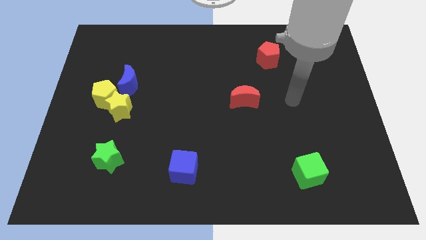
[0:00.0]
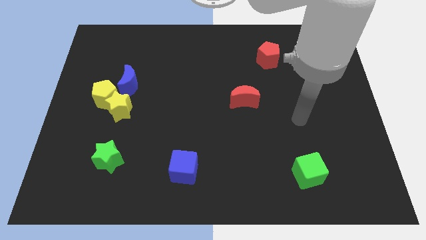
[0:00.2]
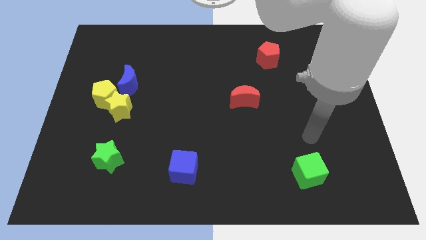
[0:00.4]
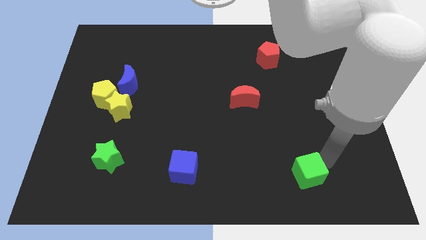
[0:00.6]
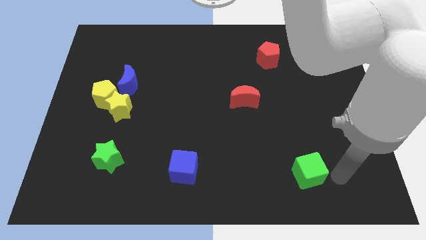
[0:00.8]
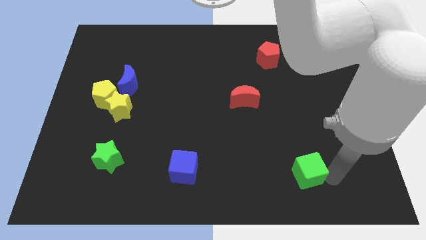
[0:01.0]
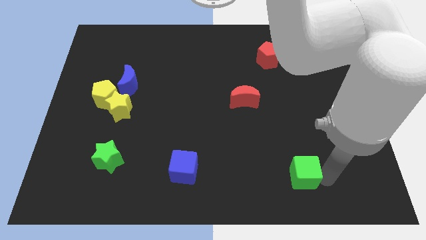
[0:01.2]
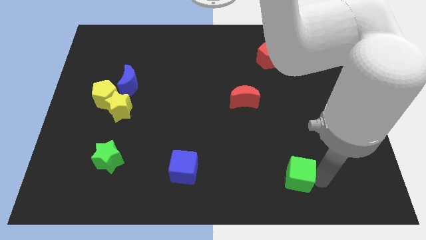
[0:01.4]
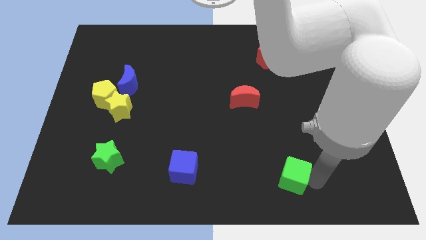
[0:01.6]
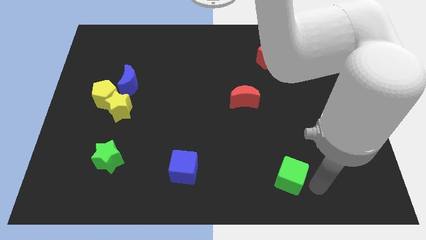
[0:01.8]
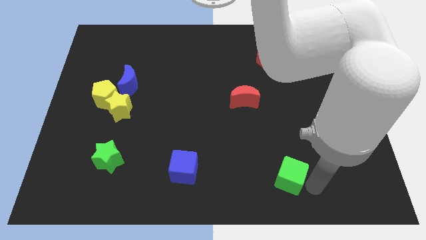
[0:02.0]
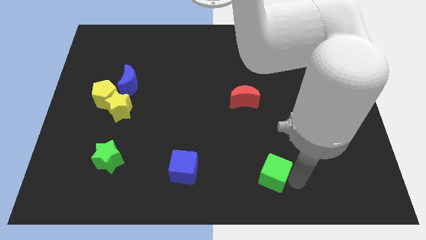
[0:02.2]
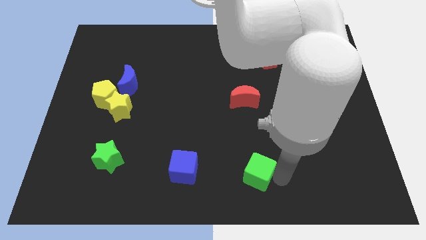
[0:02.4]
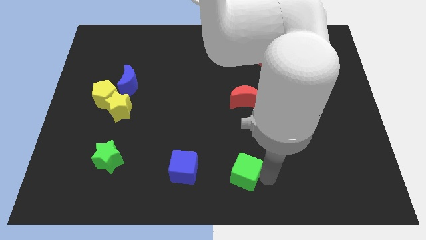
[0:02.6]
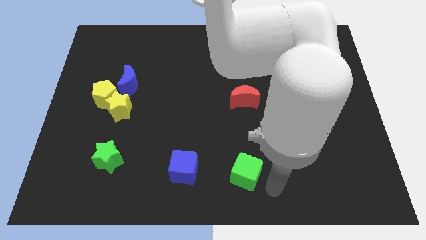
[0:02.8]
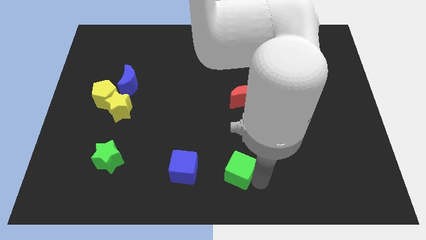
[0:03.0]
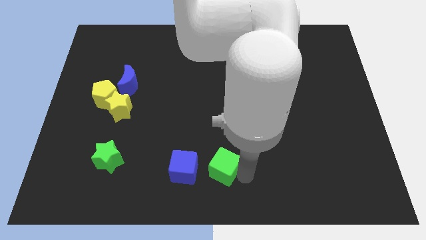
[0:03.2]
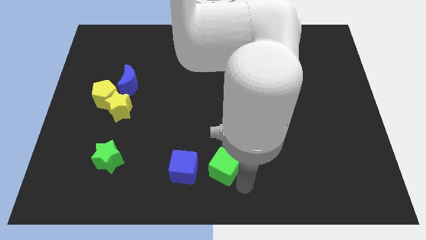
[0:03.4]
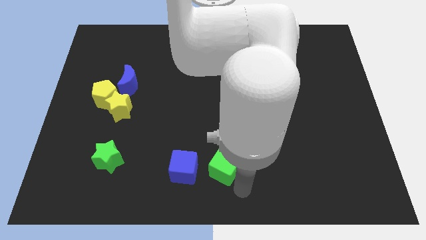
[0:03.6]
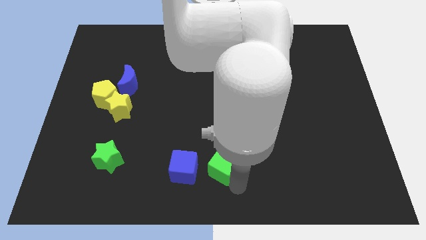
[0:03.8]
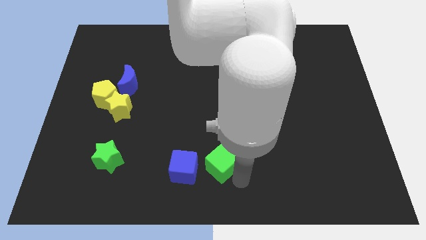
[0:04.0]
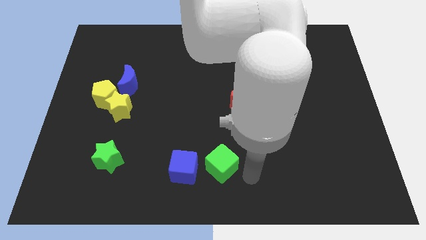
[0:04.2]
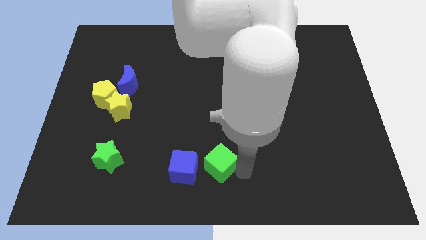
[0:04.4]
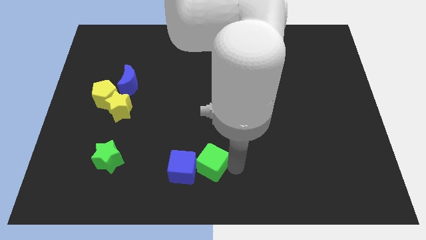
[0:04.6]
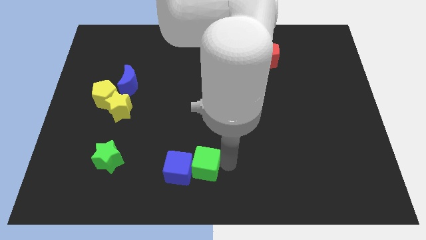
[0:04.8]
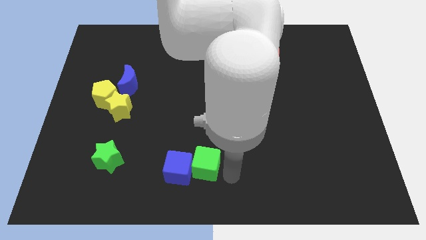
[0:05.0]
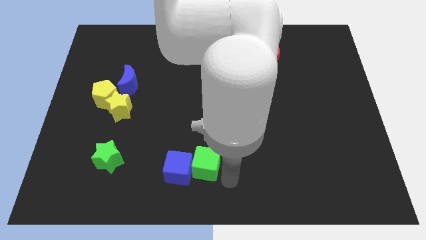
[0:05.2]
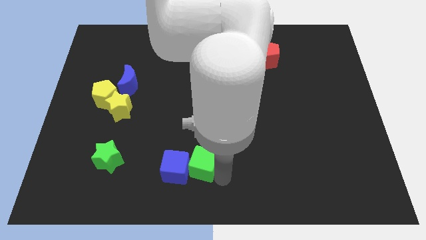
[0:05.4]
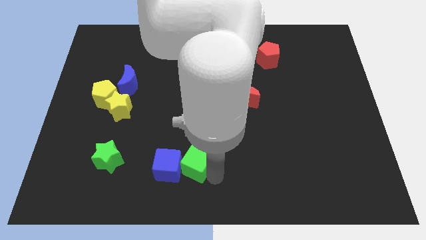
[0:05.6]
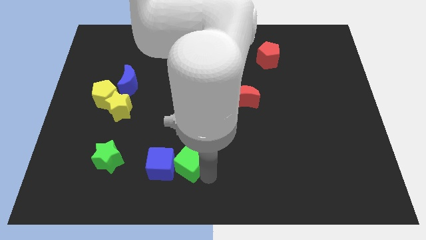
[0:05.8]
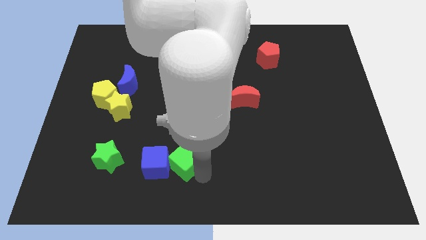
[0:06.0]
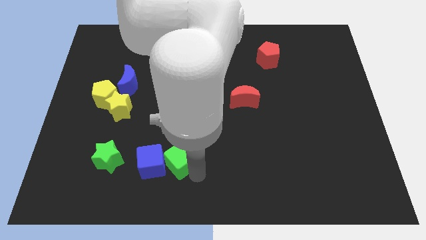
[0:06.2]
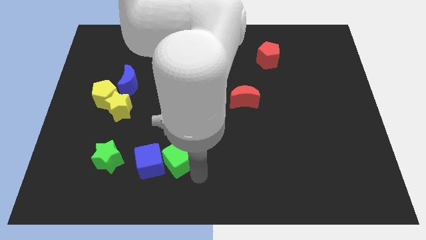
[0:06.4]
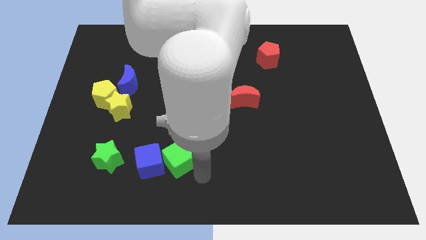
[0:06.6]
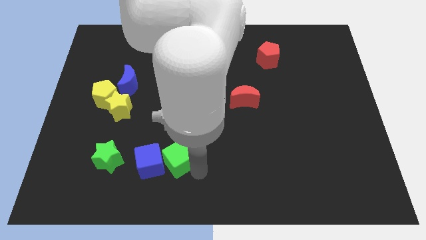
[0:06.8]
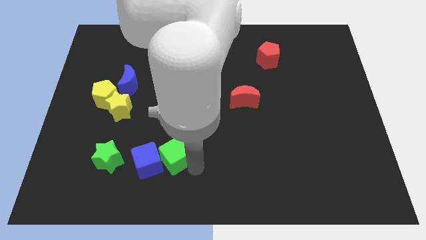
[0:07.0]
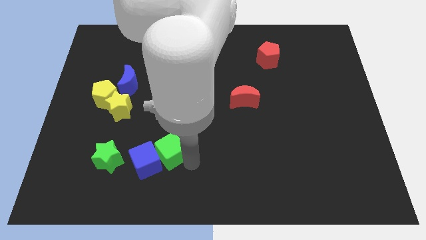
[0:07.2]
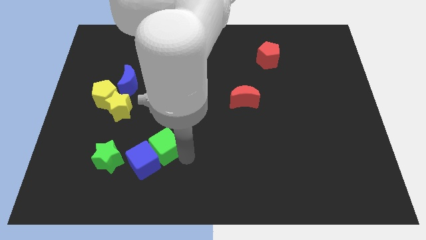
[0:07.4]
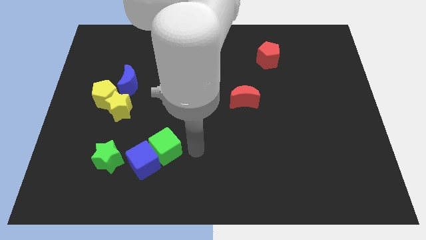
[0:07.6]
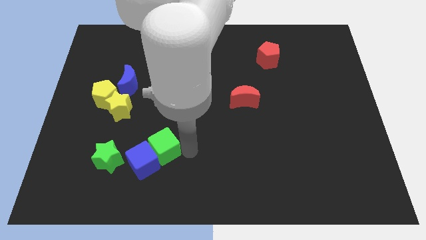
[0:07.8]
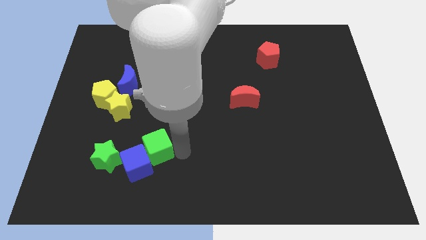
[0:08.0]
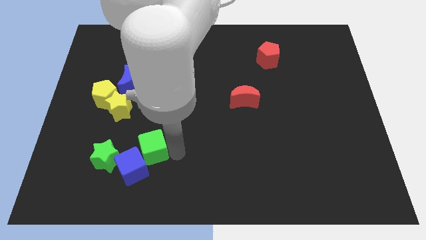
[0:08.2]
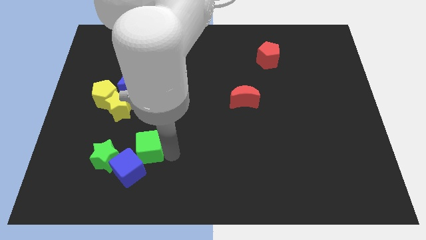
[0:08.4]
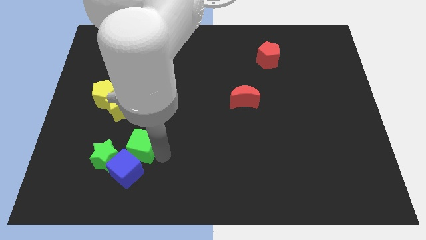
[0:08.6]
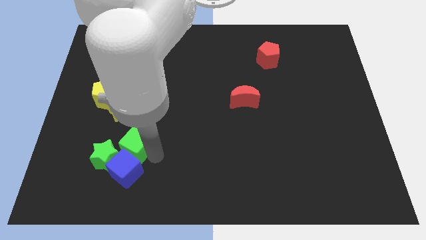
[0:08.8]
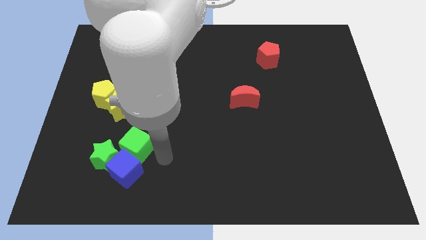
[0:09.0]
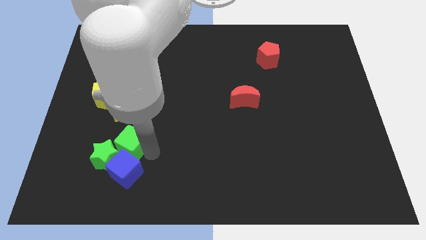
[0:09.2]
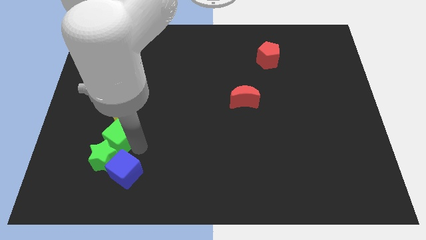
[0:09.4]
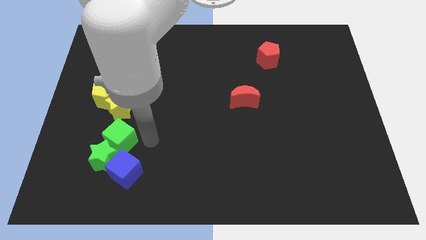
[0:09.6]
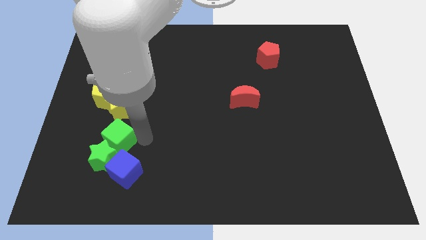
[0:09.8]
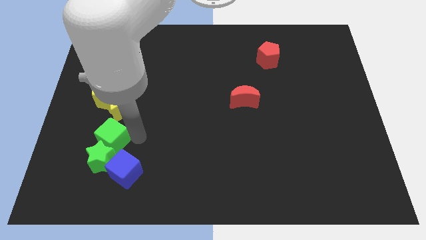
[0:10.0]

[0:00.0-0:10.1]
move the green cube to the top left of the green star

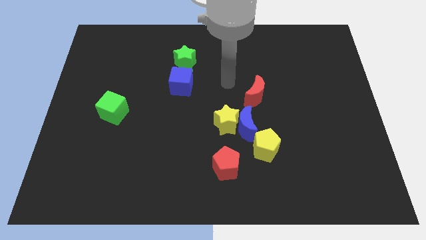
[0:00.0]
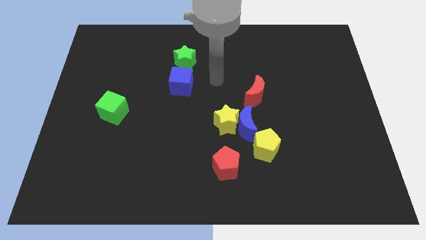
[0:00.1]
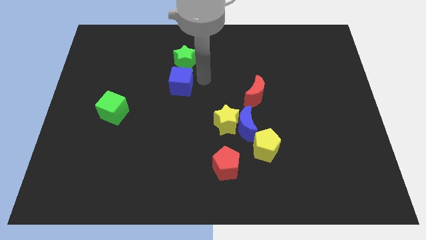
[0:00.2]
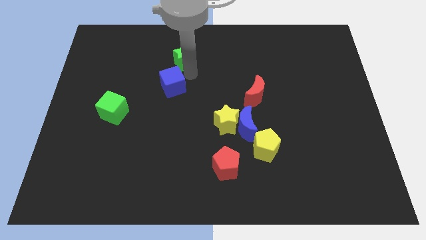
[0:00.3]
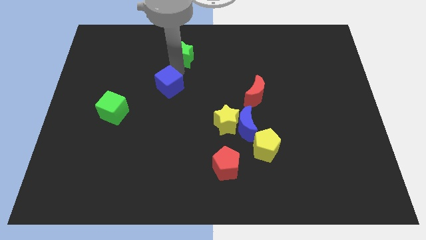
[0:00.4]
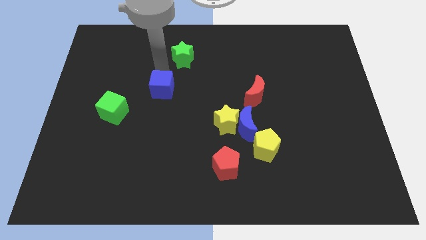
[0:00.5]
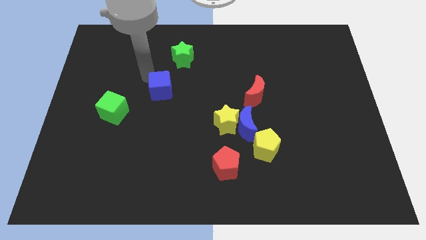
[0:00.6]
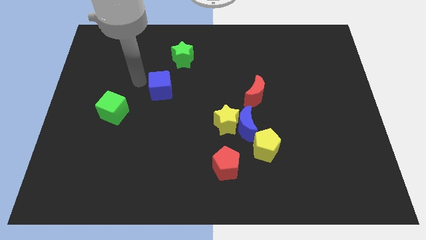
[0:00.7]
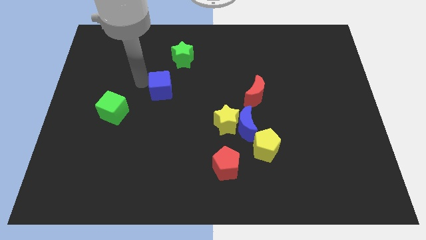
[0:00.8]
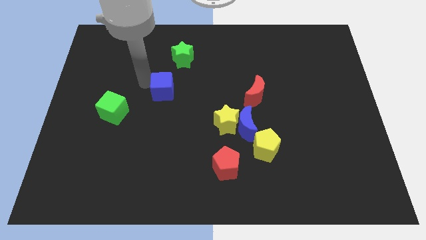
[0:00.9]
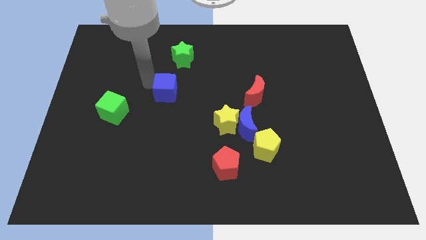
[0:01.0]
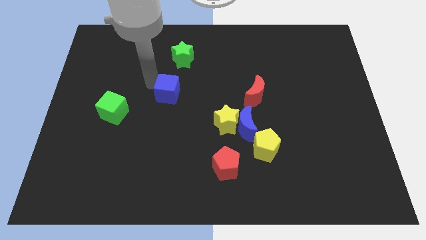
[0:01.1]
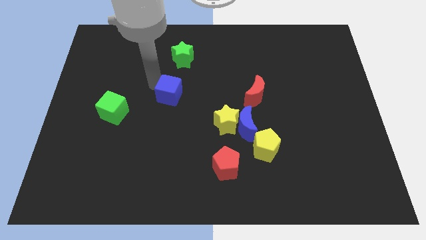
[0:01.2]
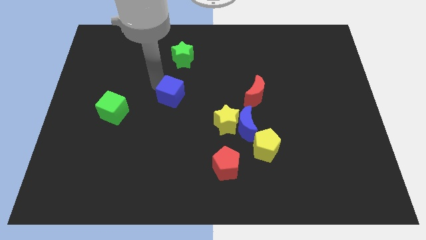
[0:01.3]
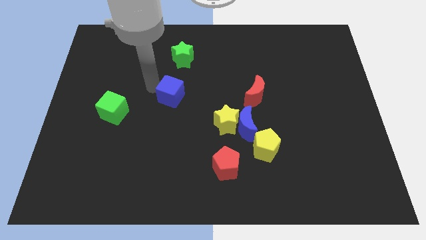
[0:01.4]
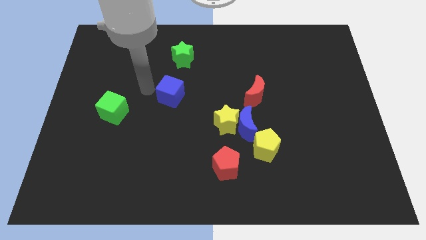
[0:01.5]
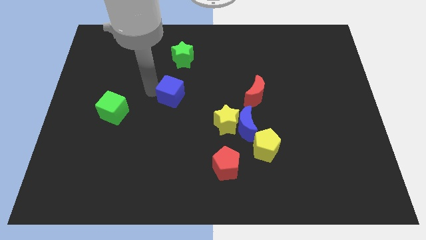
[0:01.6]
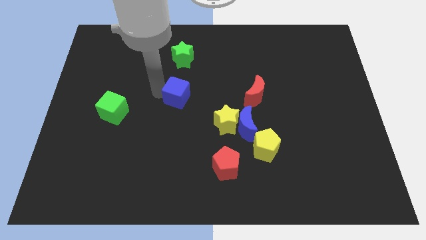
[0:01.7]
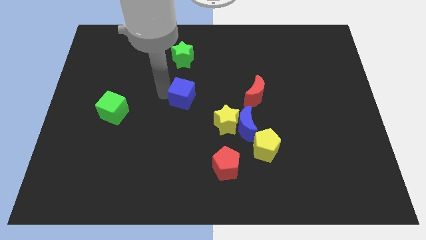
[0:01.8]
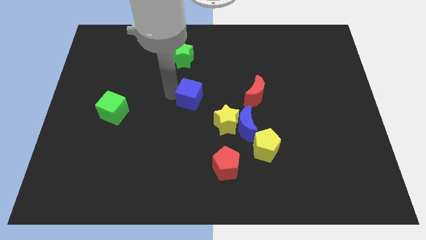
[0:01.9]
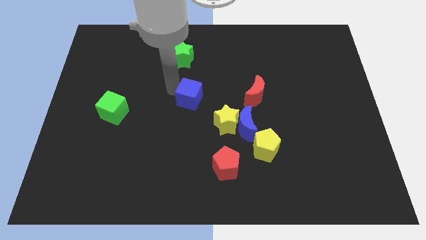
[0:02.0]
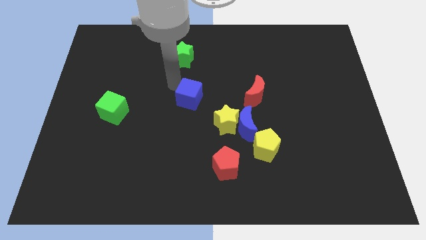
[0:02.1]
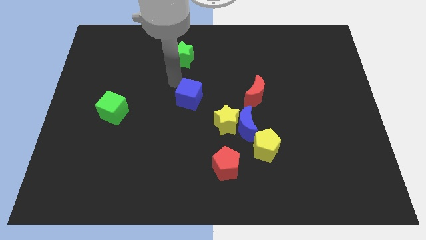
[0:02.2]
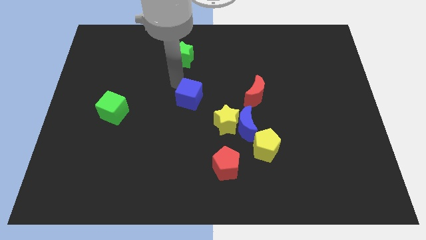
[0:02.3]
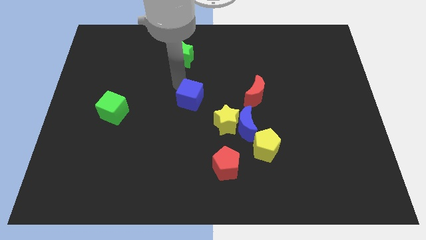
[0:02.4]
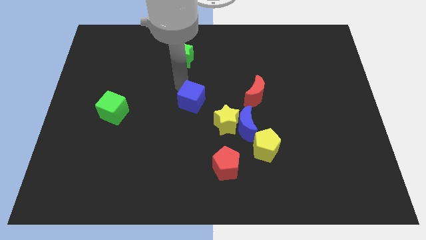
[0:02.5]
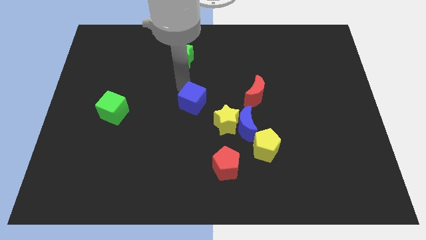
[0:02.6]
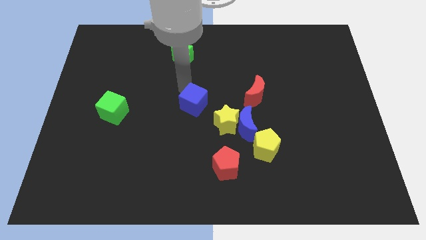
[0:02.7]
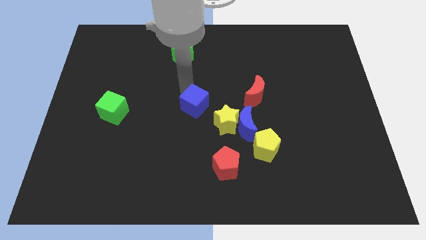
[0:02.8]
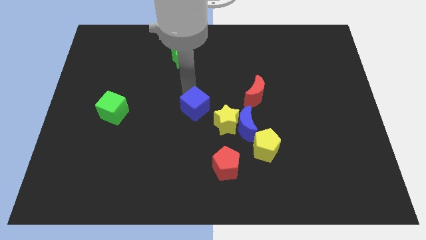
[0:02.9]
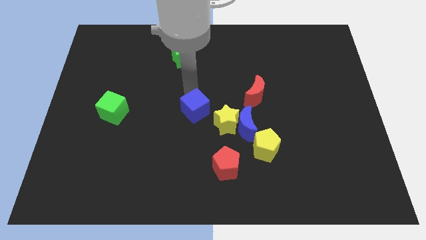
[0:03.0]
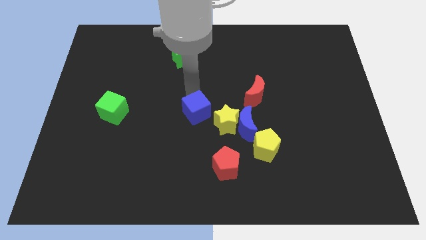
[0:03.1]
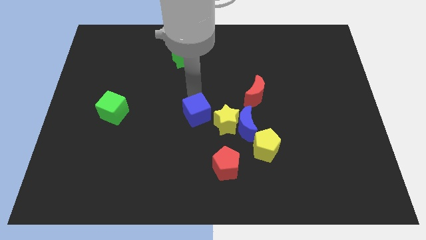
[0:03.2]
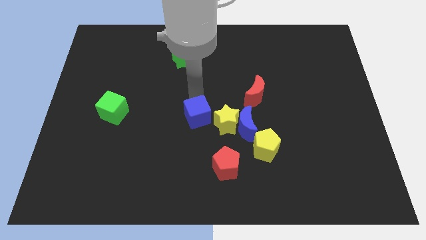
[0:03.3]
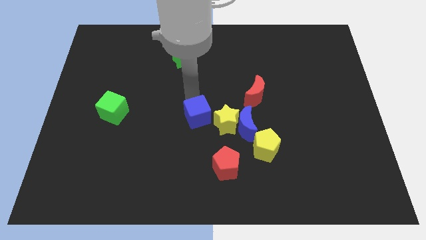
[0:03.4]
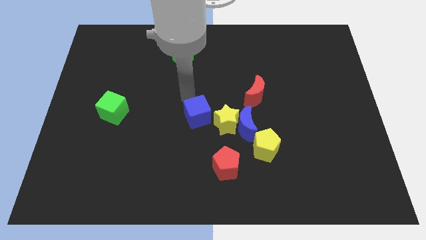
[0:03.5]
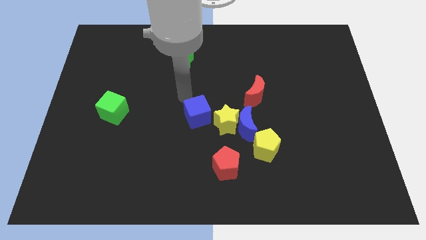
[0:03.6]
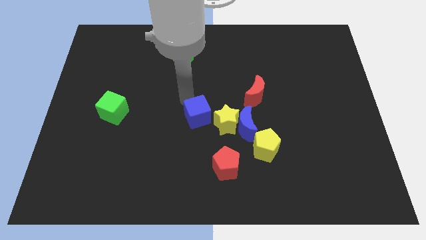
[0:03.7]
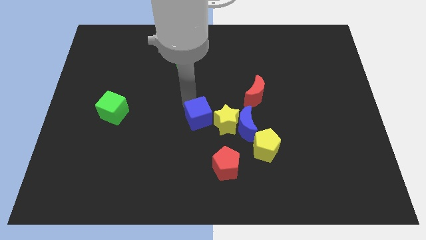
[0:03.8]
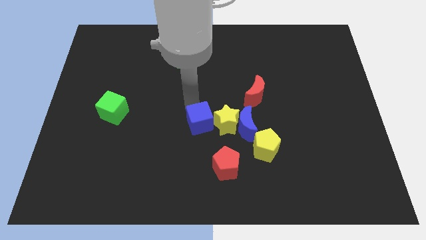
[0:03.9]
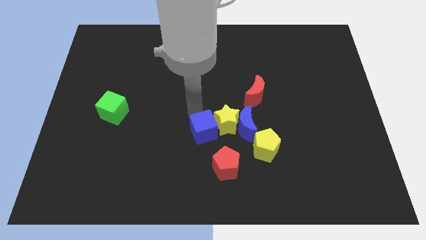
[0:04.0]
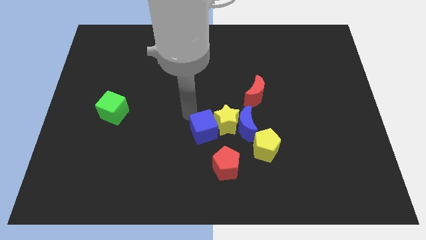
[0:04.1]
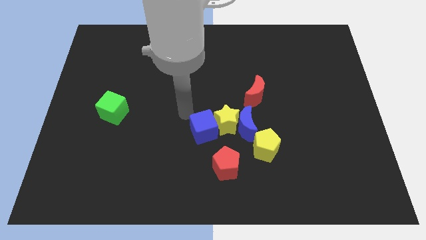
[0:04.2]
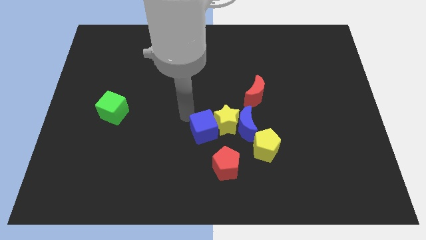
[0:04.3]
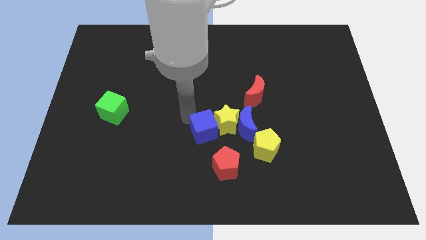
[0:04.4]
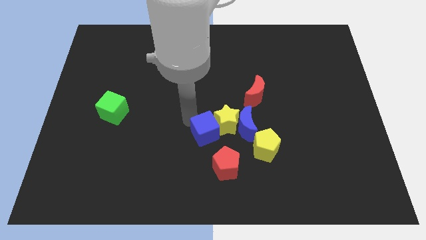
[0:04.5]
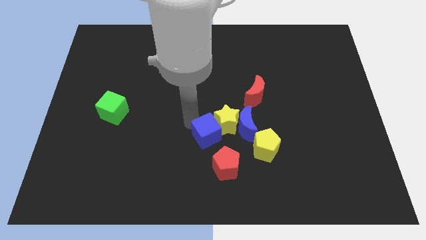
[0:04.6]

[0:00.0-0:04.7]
move the blue cube to the bottom left of the blue moon
